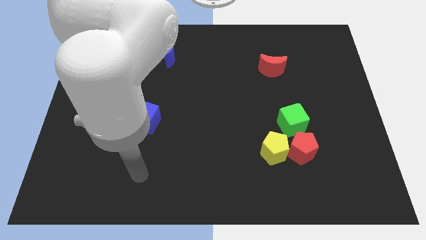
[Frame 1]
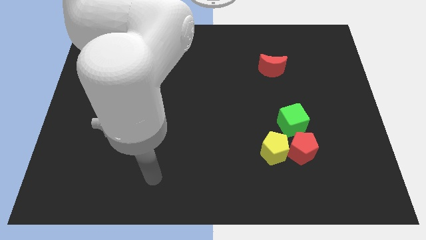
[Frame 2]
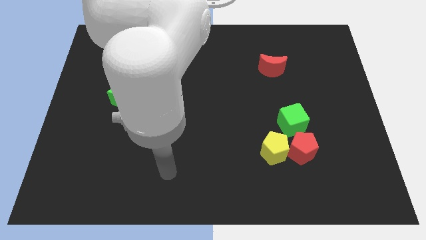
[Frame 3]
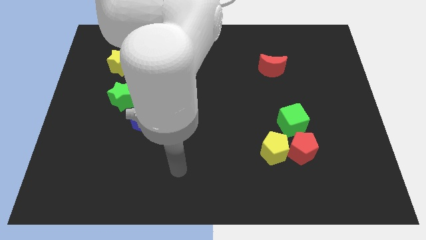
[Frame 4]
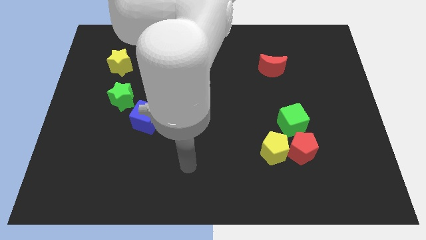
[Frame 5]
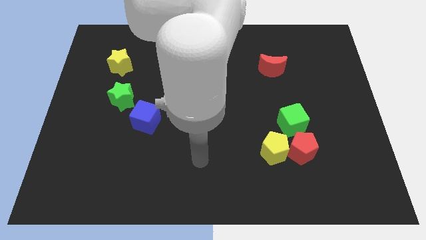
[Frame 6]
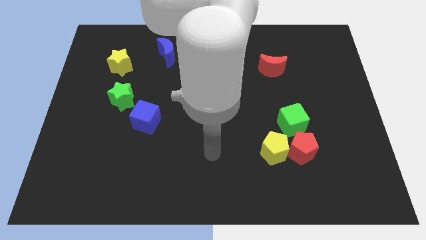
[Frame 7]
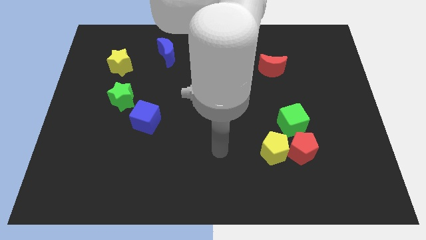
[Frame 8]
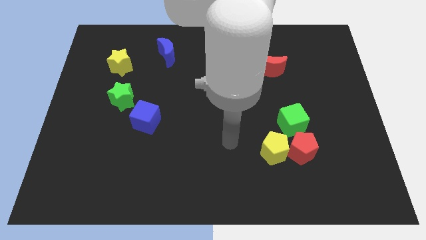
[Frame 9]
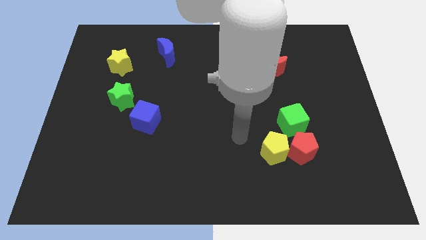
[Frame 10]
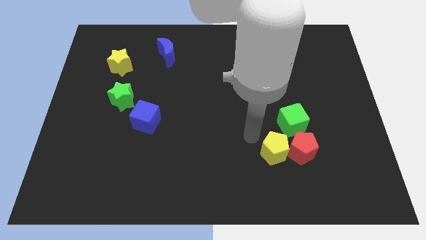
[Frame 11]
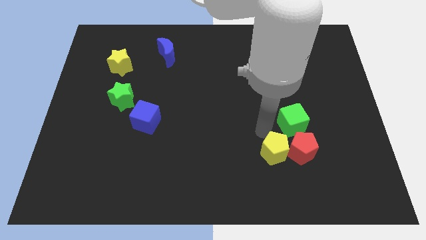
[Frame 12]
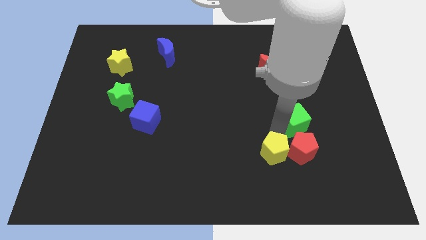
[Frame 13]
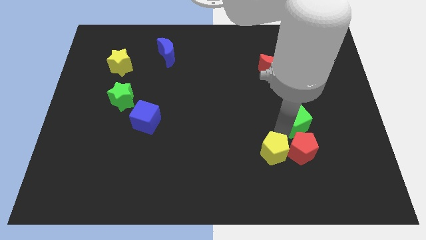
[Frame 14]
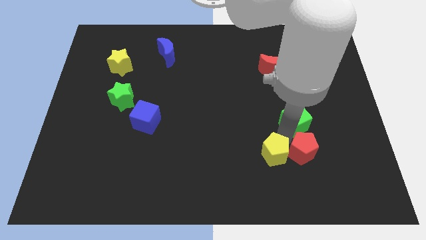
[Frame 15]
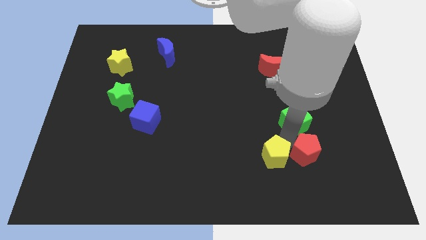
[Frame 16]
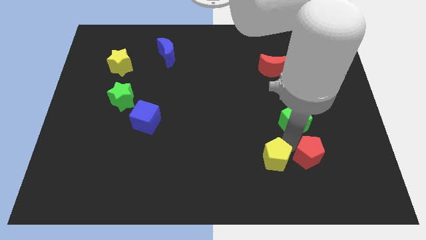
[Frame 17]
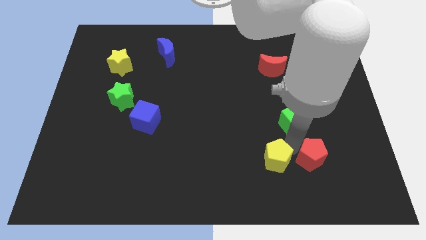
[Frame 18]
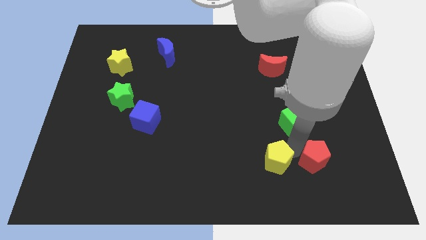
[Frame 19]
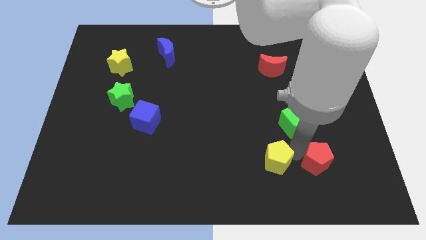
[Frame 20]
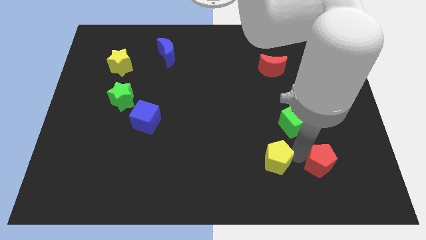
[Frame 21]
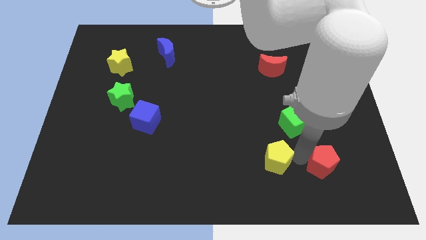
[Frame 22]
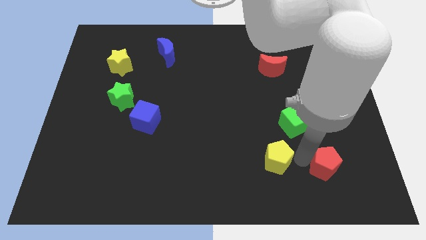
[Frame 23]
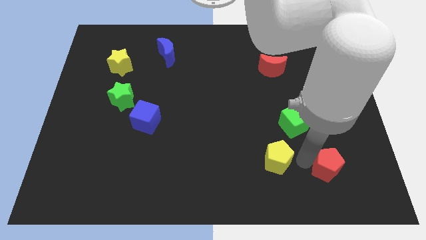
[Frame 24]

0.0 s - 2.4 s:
move the red pentagon away from the yellow pentagon and green cube

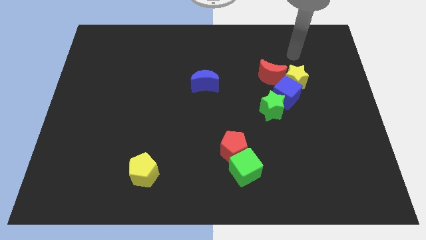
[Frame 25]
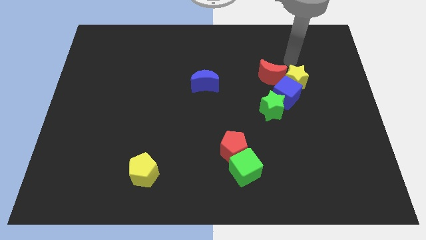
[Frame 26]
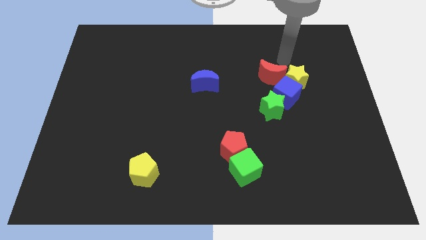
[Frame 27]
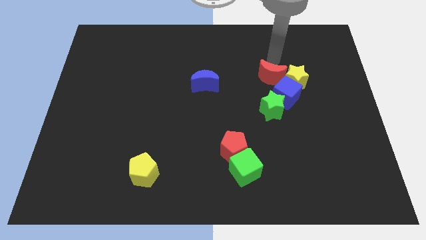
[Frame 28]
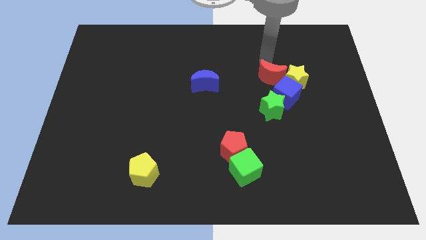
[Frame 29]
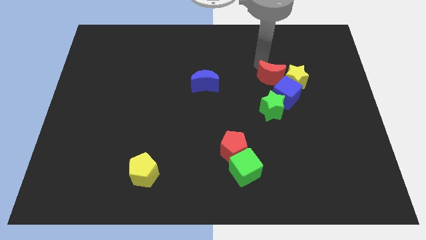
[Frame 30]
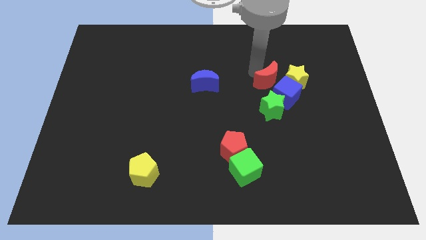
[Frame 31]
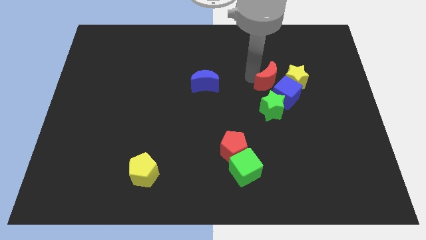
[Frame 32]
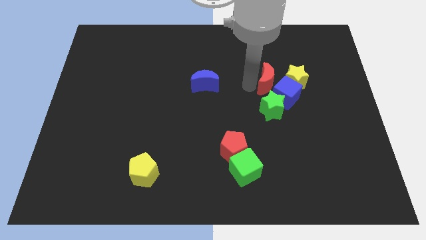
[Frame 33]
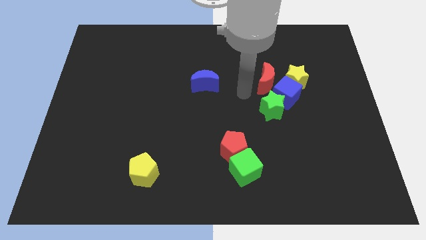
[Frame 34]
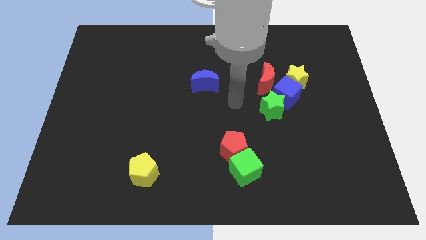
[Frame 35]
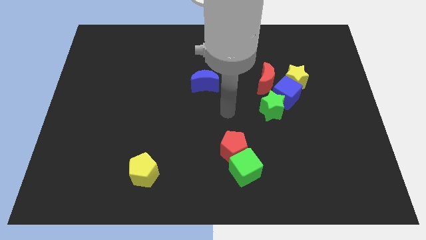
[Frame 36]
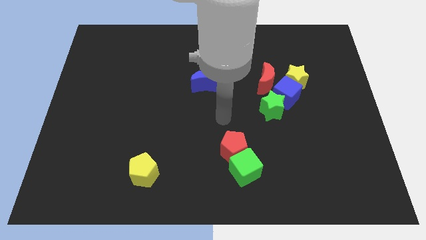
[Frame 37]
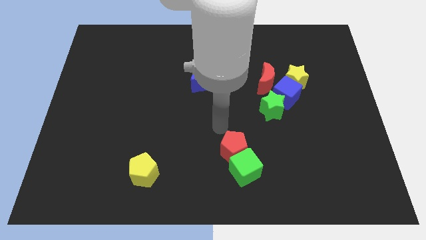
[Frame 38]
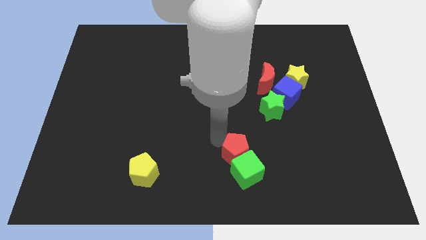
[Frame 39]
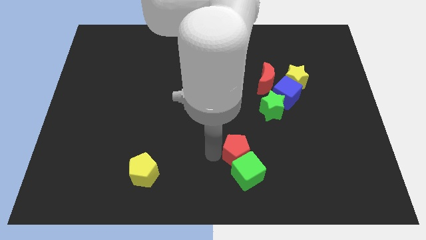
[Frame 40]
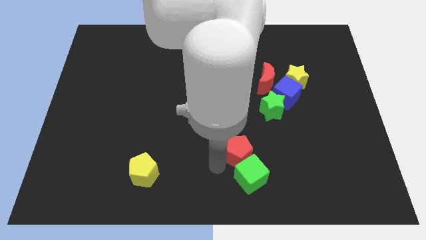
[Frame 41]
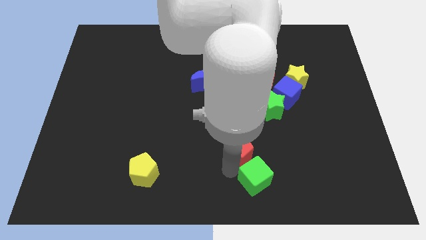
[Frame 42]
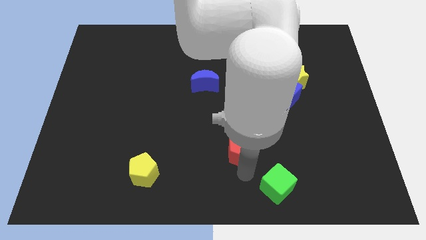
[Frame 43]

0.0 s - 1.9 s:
move the red pentagon away from the green cube

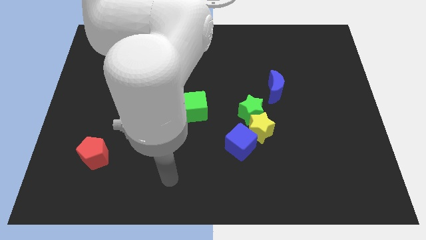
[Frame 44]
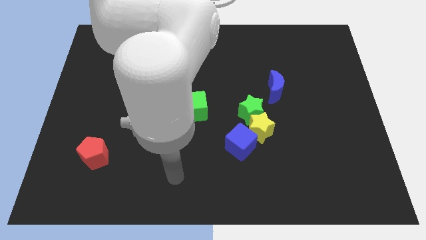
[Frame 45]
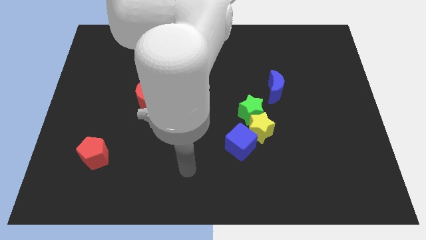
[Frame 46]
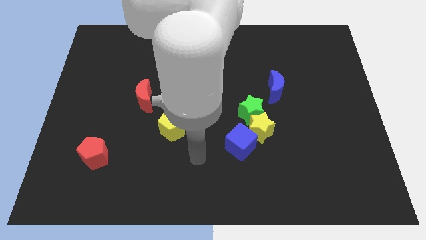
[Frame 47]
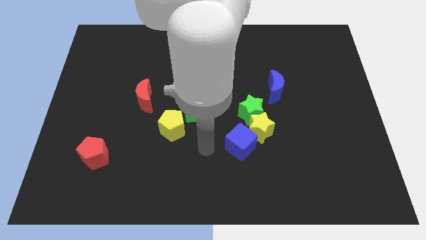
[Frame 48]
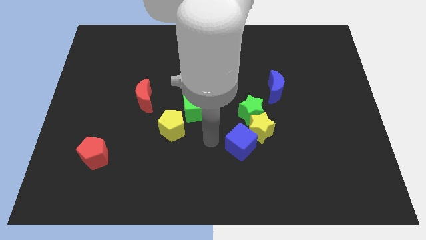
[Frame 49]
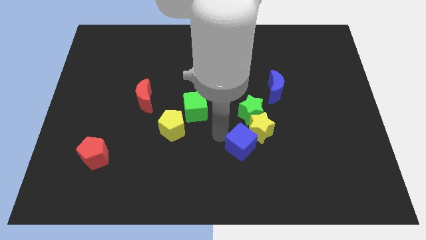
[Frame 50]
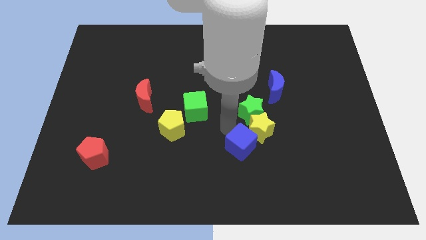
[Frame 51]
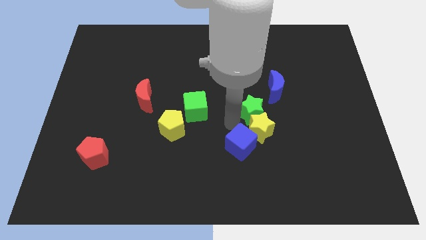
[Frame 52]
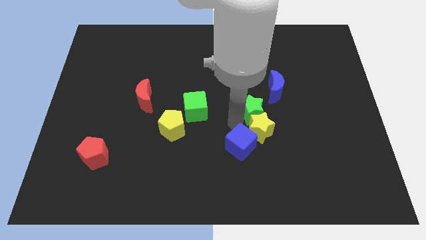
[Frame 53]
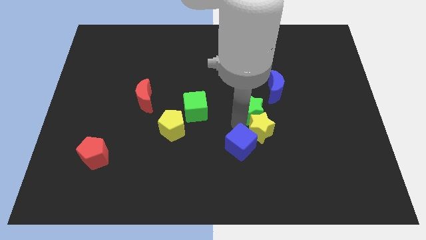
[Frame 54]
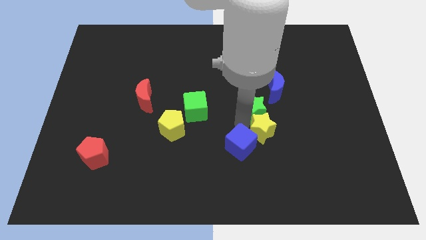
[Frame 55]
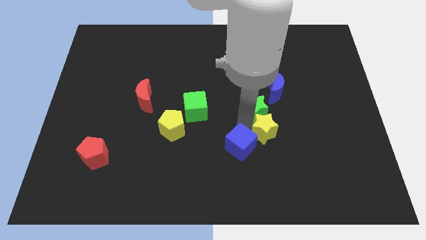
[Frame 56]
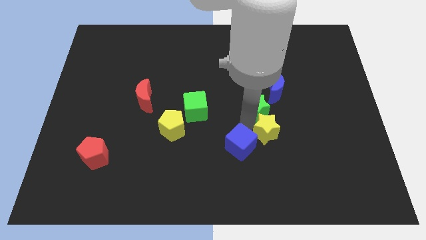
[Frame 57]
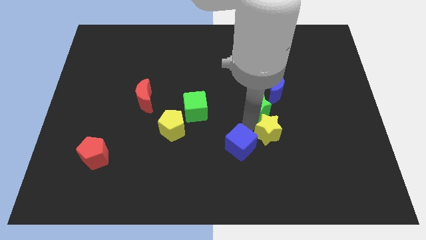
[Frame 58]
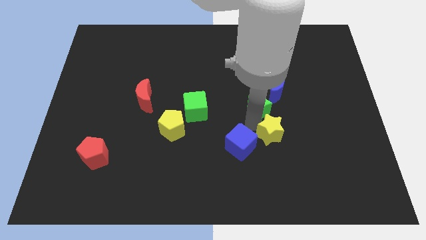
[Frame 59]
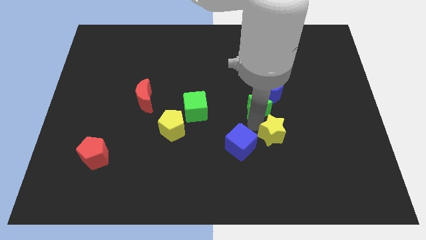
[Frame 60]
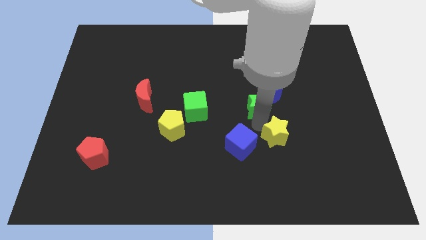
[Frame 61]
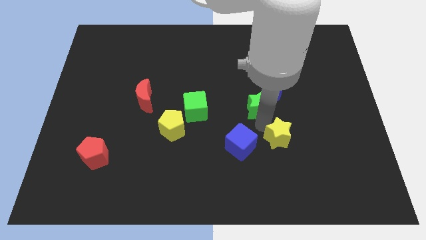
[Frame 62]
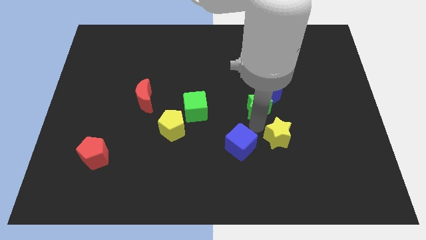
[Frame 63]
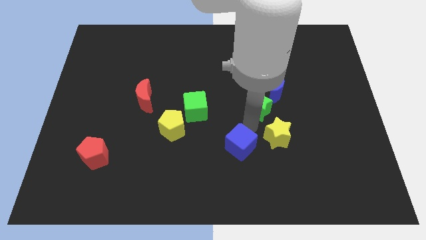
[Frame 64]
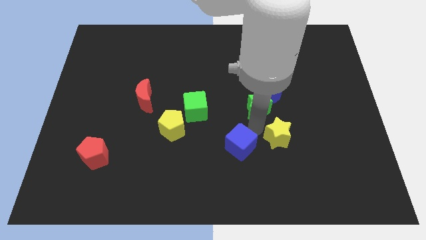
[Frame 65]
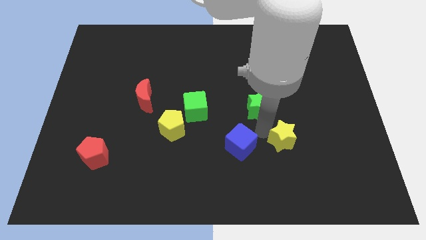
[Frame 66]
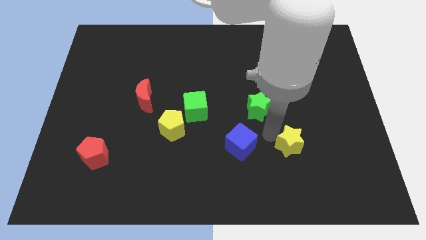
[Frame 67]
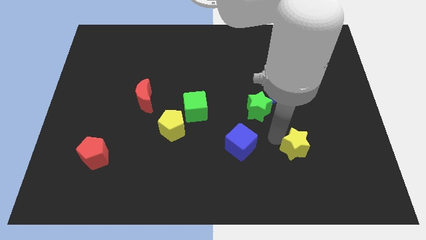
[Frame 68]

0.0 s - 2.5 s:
move the yellow star away from the green star and blue cube

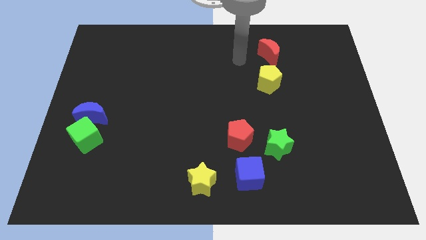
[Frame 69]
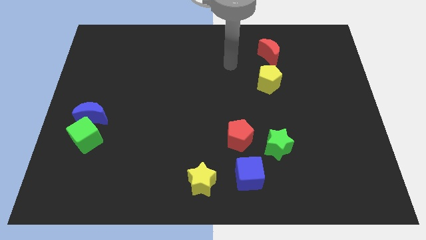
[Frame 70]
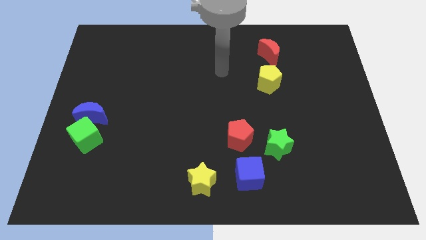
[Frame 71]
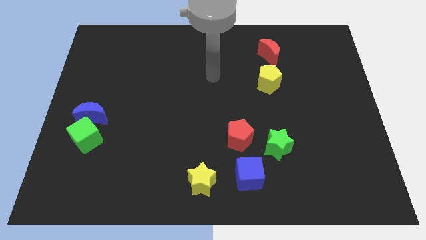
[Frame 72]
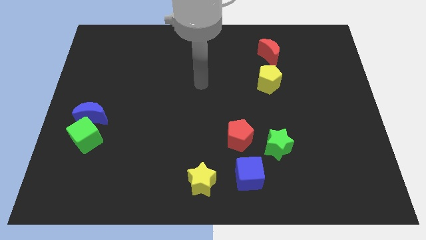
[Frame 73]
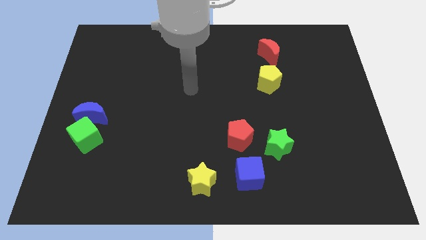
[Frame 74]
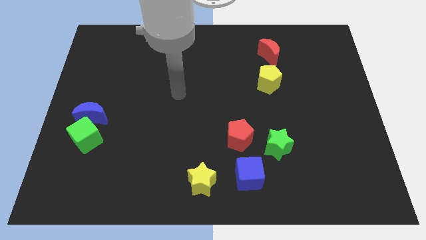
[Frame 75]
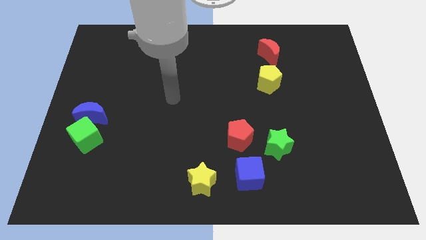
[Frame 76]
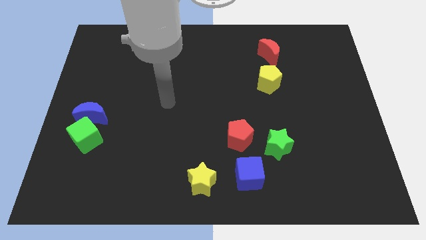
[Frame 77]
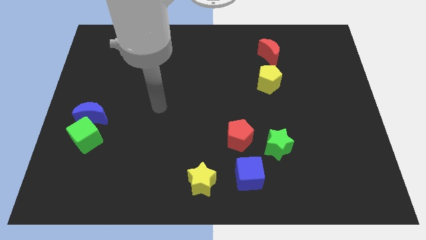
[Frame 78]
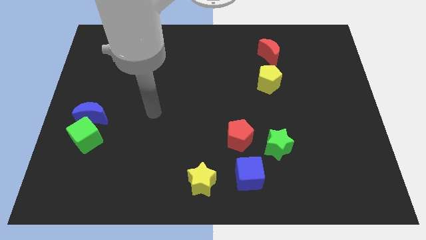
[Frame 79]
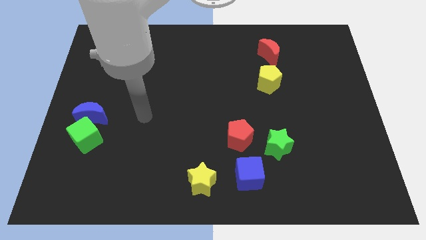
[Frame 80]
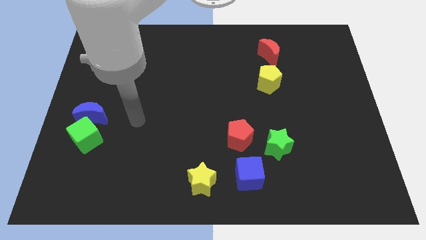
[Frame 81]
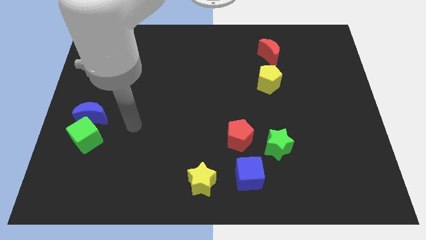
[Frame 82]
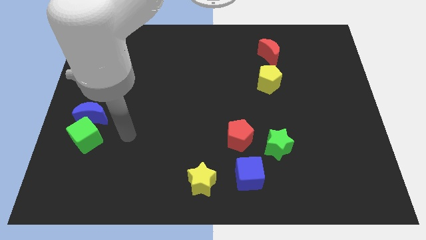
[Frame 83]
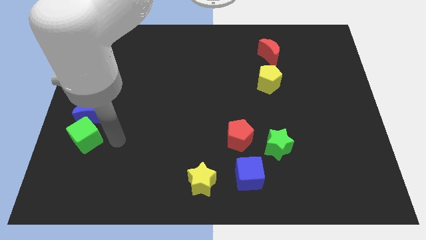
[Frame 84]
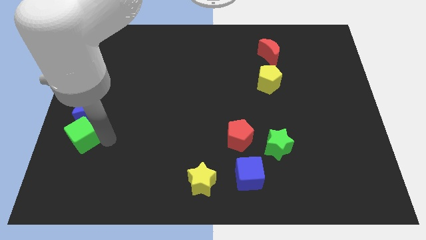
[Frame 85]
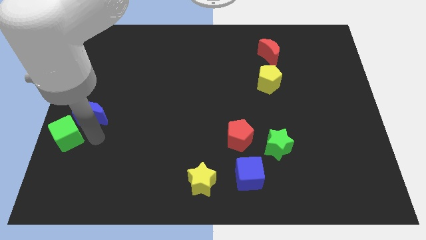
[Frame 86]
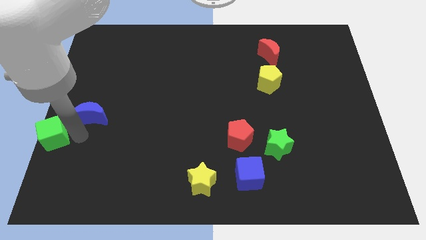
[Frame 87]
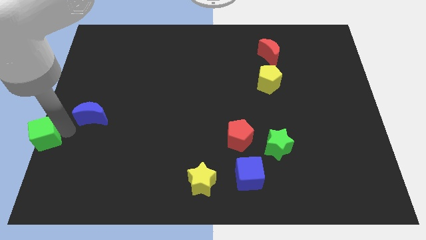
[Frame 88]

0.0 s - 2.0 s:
move the blue moon away from the green cube

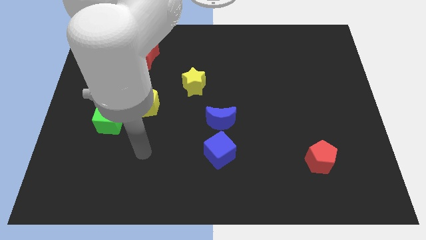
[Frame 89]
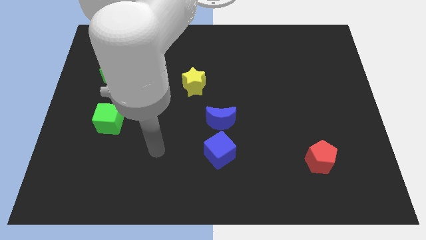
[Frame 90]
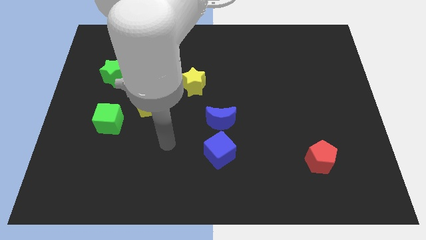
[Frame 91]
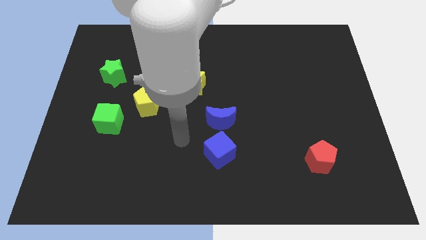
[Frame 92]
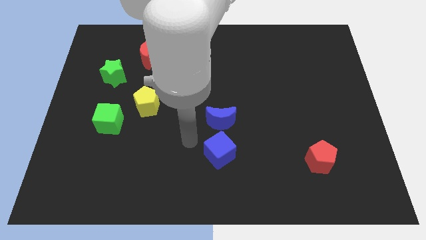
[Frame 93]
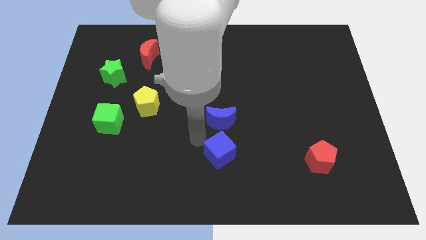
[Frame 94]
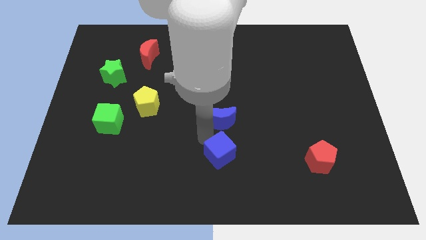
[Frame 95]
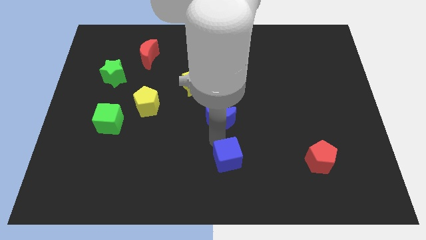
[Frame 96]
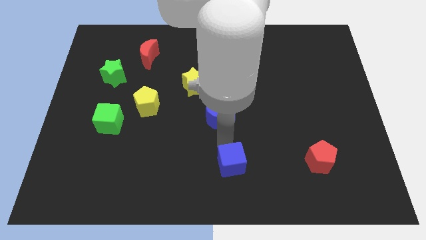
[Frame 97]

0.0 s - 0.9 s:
pull the blue moon apart from the blue cube
